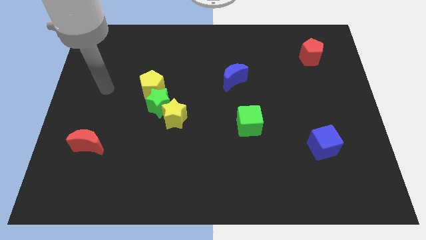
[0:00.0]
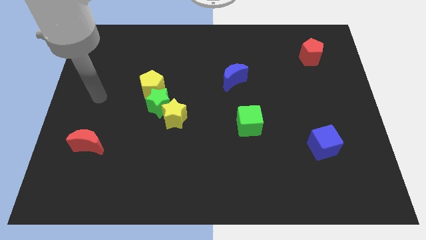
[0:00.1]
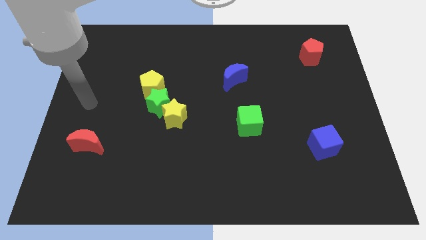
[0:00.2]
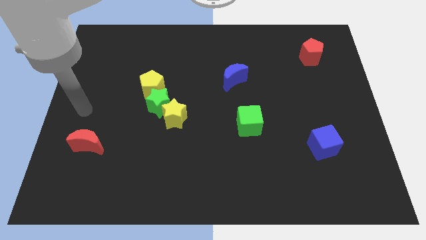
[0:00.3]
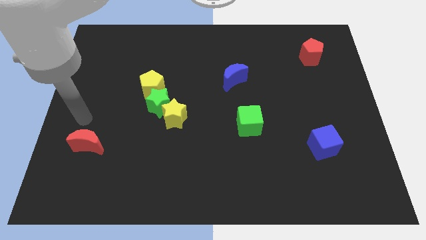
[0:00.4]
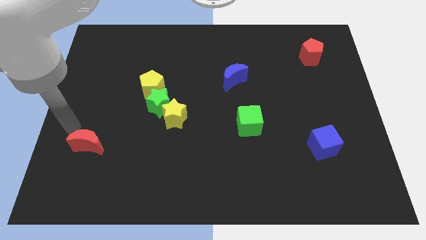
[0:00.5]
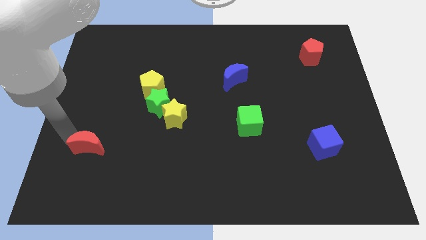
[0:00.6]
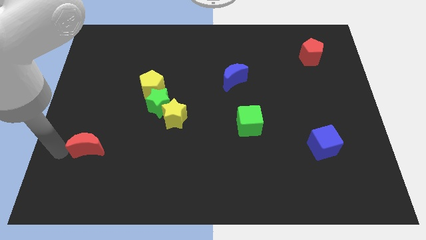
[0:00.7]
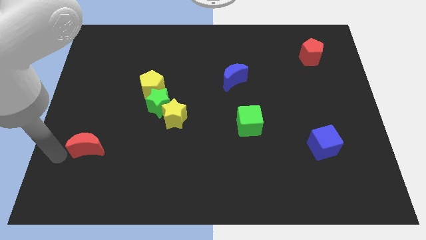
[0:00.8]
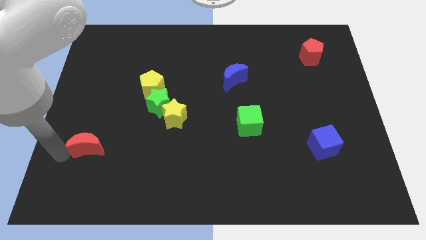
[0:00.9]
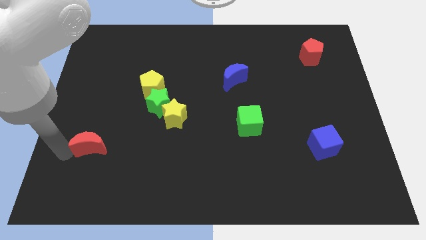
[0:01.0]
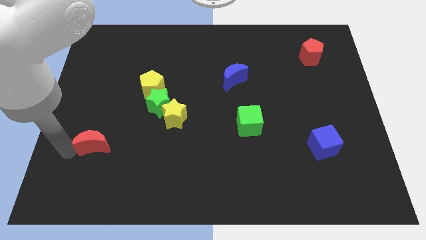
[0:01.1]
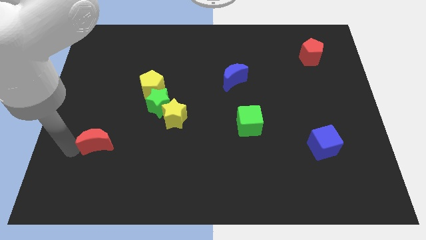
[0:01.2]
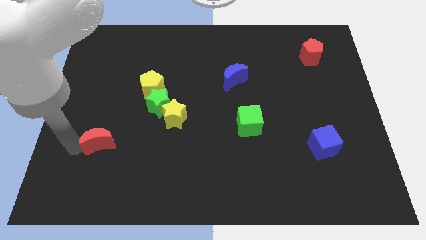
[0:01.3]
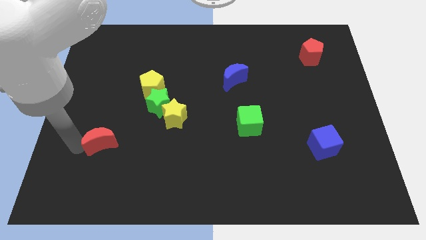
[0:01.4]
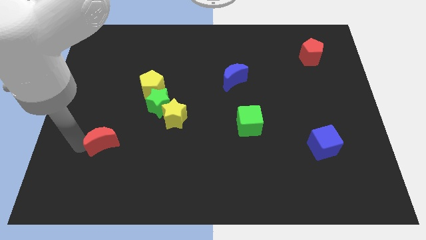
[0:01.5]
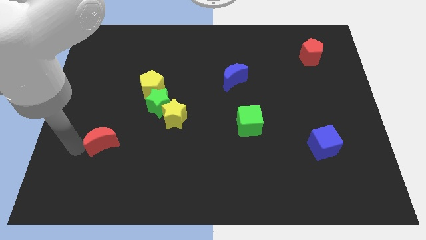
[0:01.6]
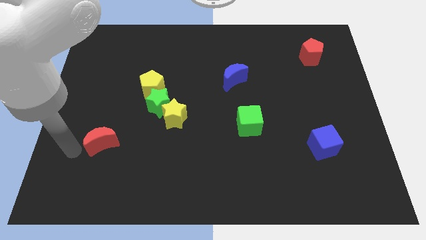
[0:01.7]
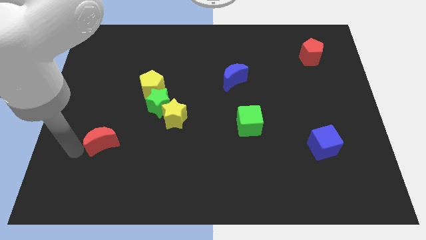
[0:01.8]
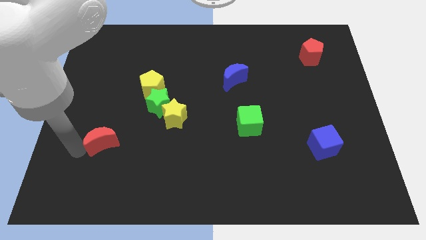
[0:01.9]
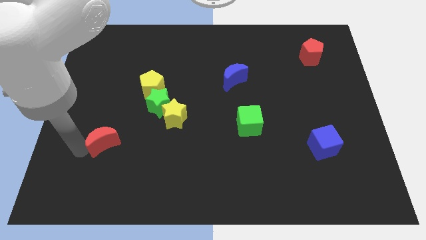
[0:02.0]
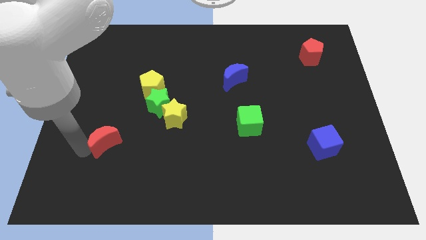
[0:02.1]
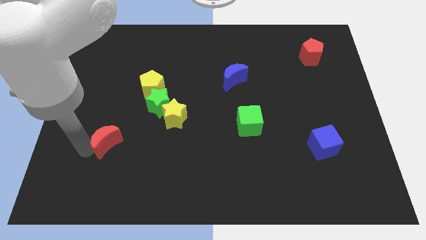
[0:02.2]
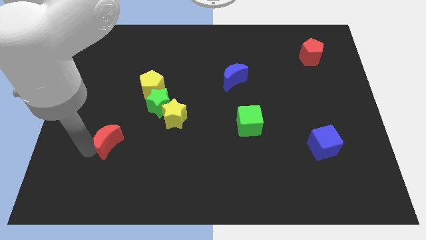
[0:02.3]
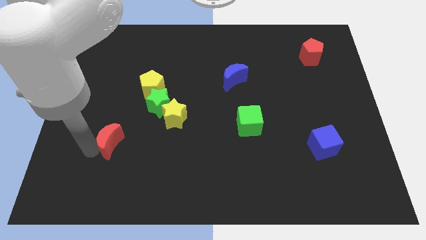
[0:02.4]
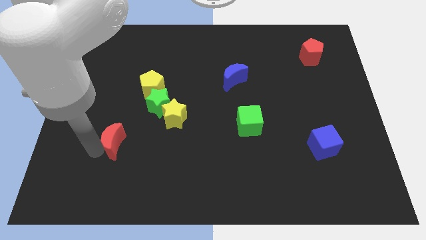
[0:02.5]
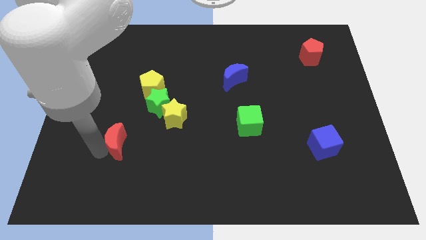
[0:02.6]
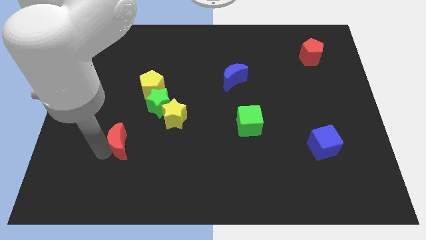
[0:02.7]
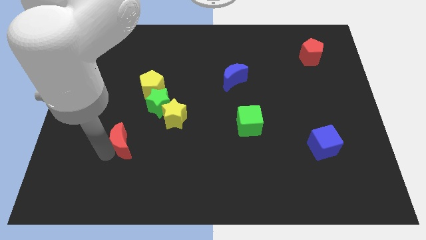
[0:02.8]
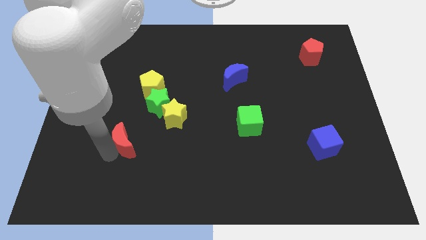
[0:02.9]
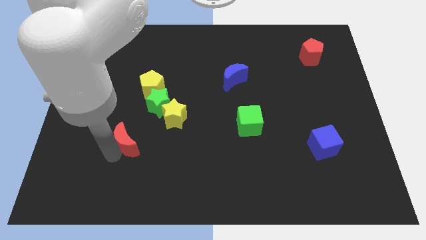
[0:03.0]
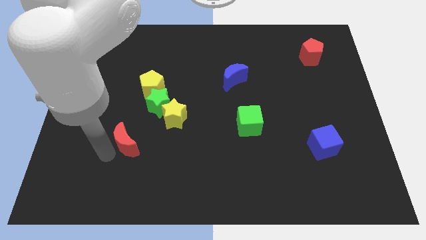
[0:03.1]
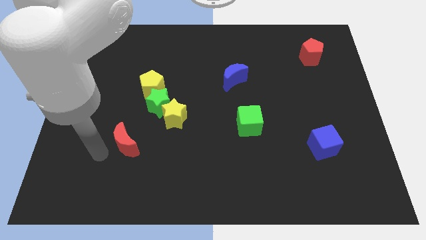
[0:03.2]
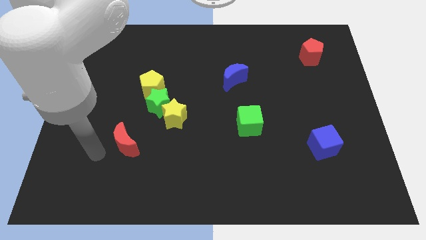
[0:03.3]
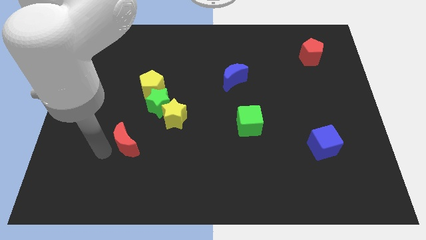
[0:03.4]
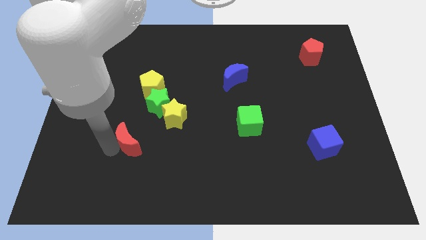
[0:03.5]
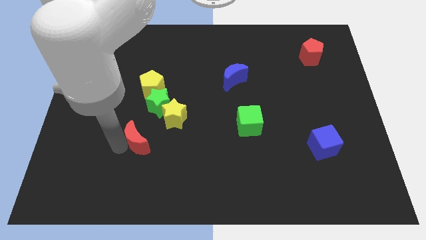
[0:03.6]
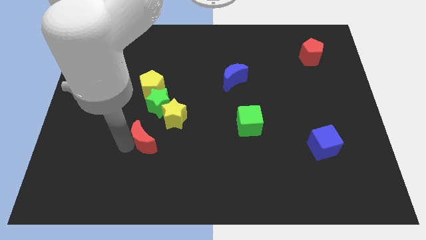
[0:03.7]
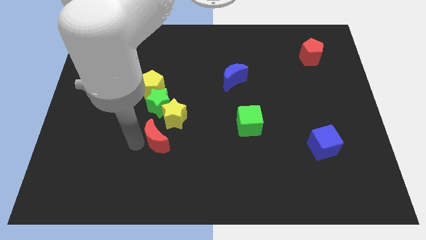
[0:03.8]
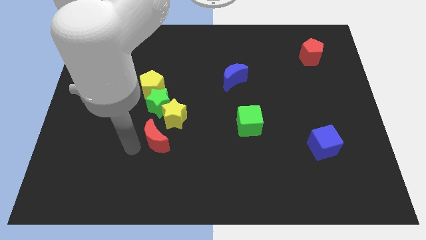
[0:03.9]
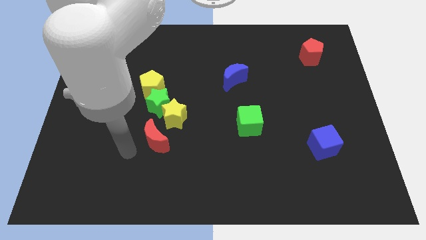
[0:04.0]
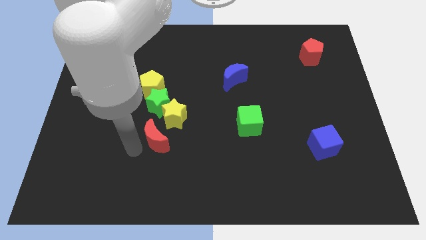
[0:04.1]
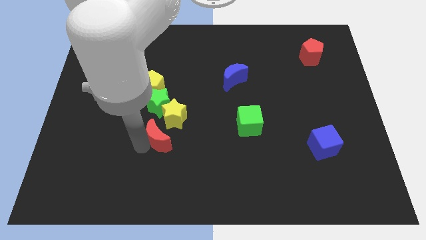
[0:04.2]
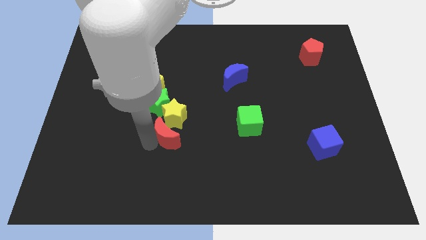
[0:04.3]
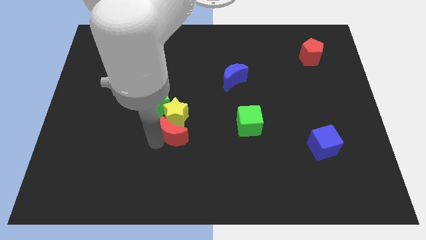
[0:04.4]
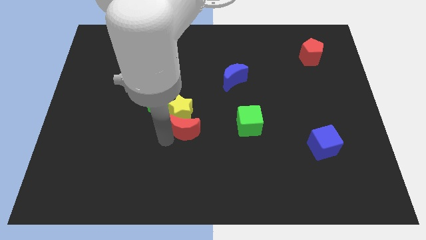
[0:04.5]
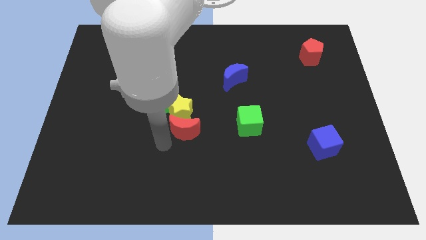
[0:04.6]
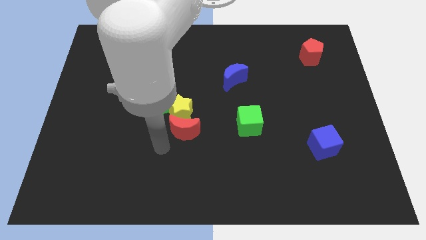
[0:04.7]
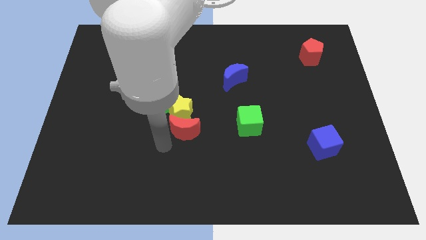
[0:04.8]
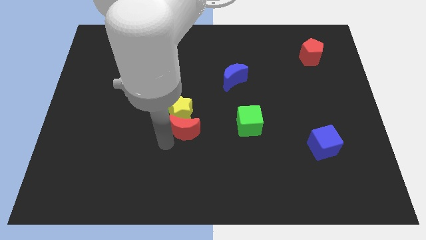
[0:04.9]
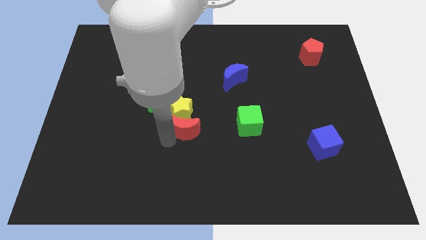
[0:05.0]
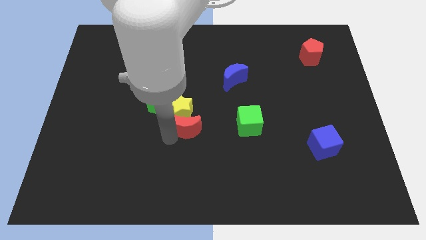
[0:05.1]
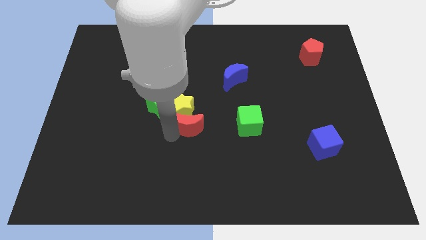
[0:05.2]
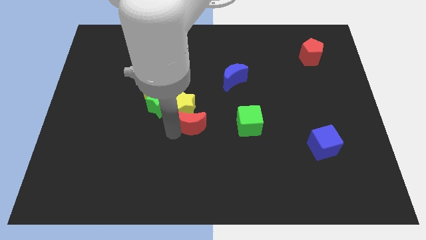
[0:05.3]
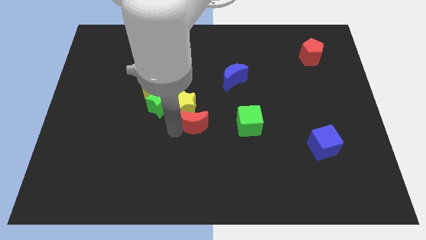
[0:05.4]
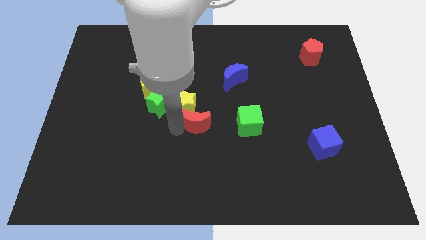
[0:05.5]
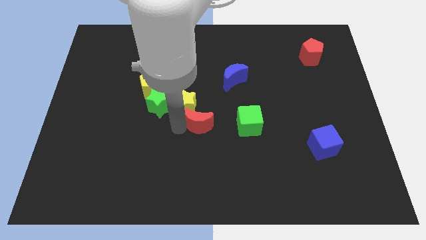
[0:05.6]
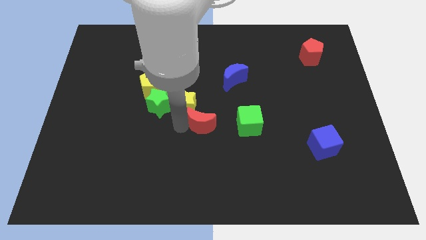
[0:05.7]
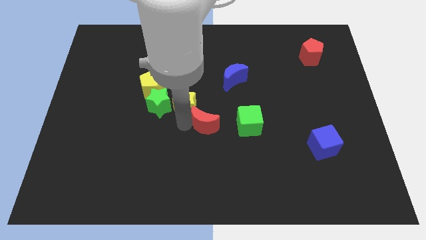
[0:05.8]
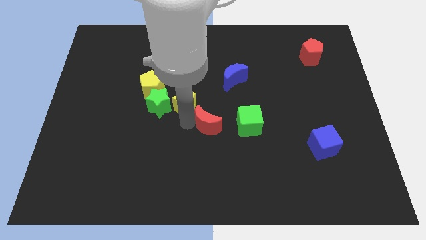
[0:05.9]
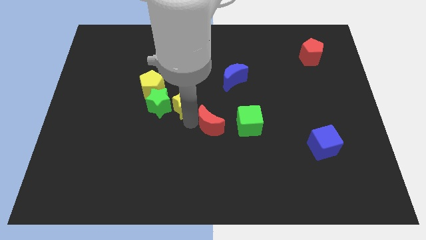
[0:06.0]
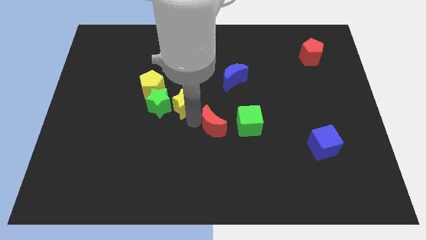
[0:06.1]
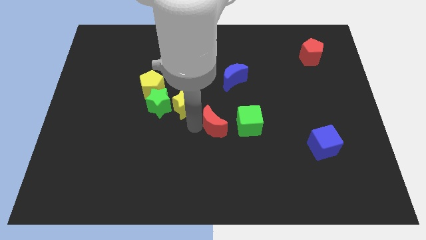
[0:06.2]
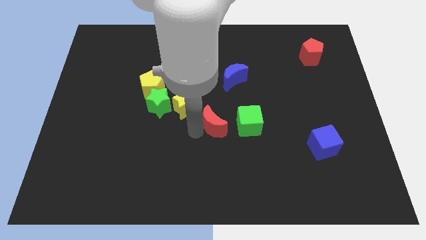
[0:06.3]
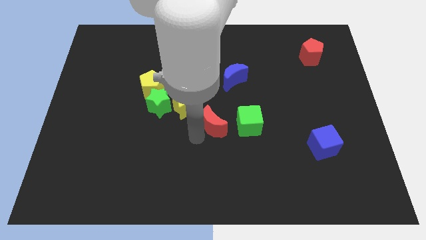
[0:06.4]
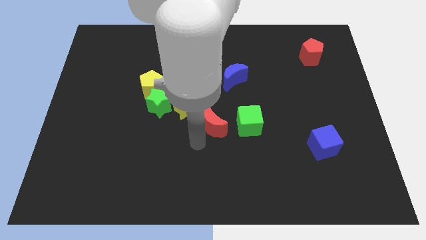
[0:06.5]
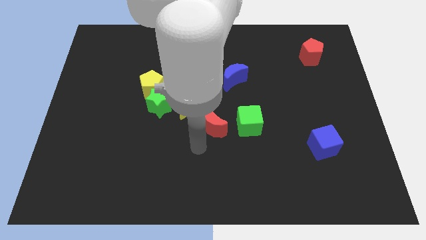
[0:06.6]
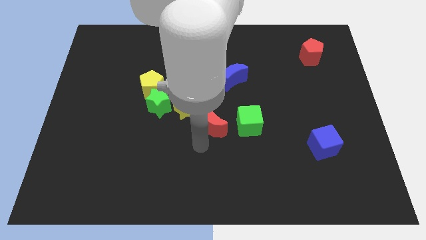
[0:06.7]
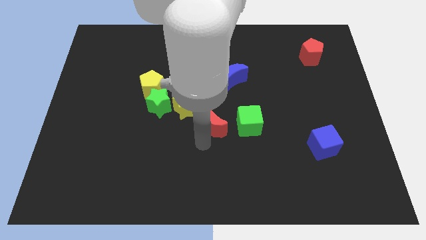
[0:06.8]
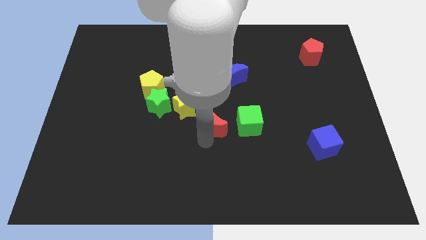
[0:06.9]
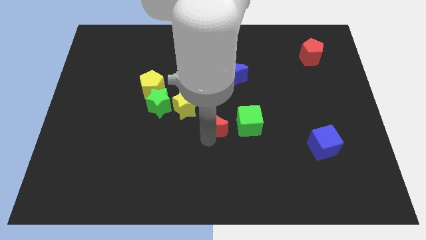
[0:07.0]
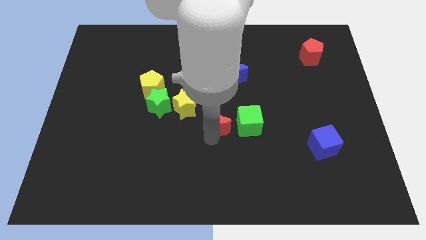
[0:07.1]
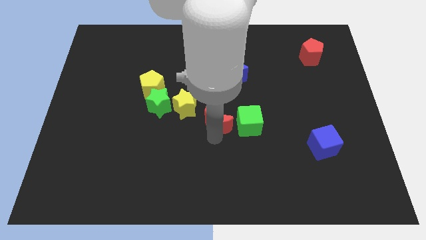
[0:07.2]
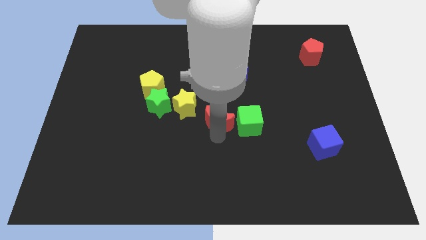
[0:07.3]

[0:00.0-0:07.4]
move the red moon diagonally up and to the left of the green cube
